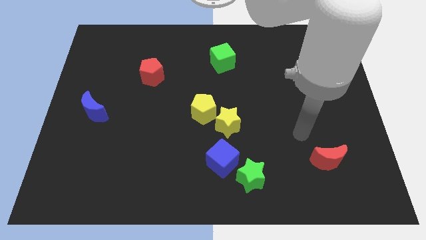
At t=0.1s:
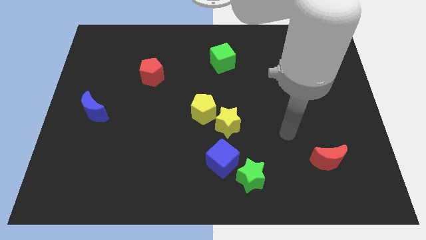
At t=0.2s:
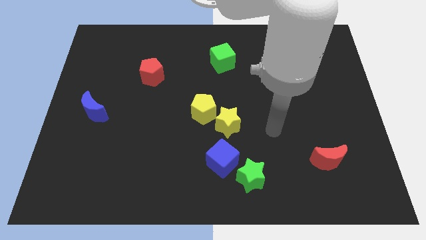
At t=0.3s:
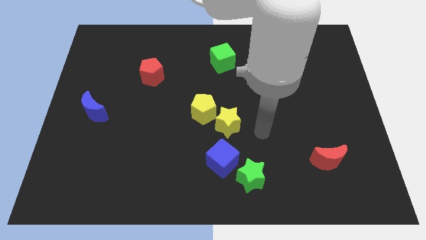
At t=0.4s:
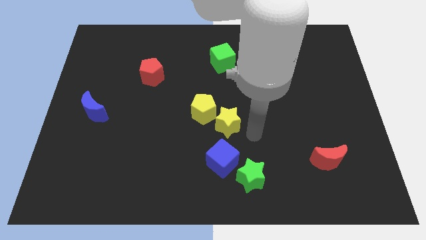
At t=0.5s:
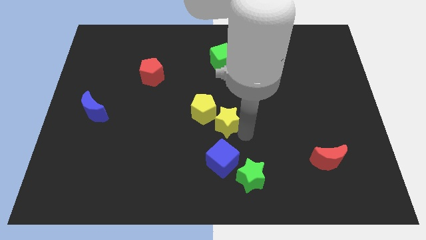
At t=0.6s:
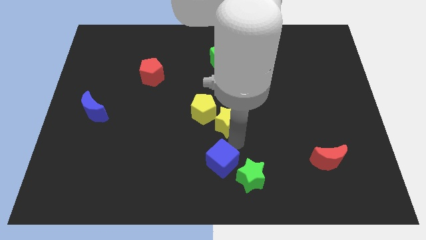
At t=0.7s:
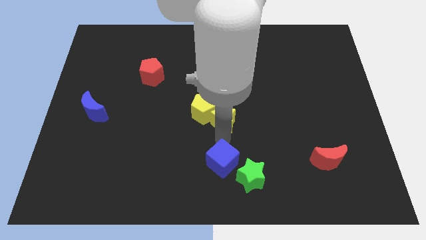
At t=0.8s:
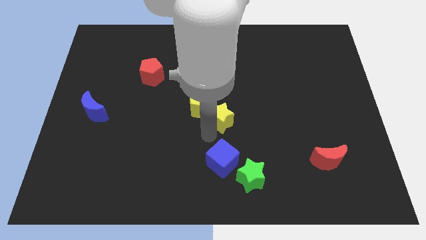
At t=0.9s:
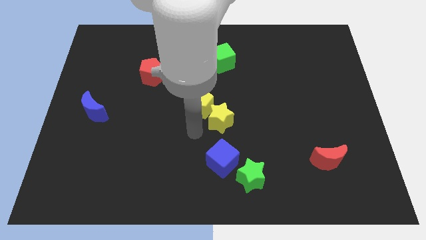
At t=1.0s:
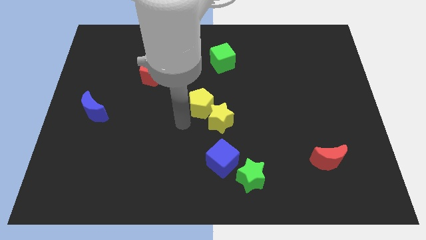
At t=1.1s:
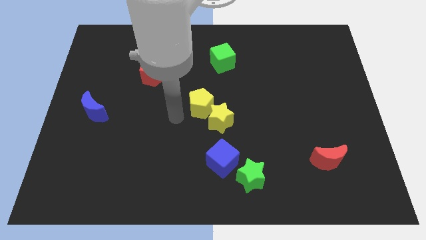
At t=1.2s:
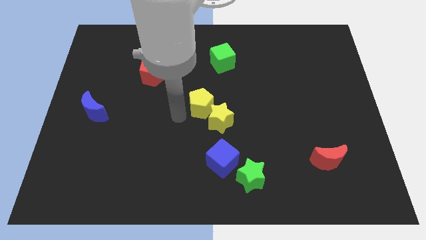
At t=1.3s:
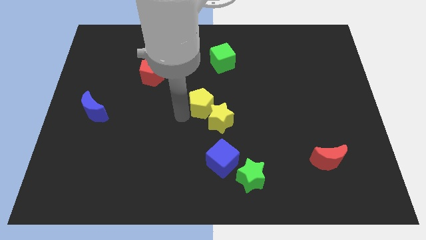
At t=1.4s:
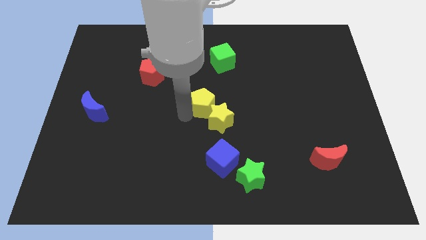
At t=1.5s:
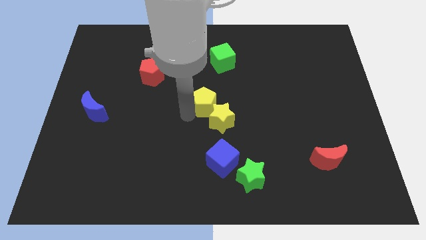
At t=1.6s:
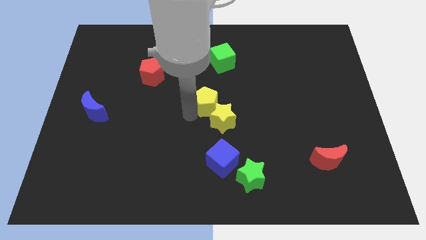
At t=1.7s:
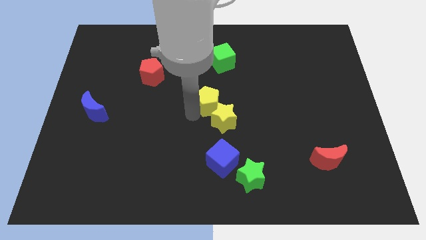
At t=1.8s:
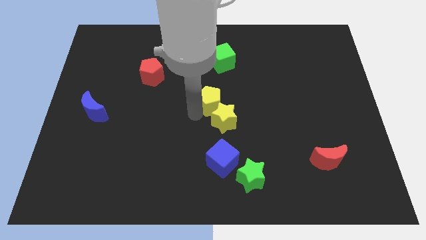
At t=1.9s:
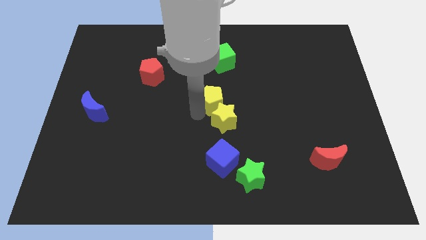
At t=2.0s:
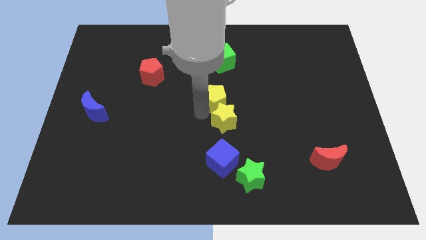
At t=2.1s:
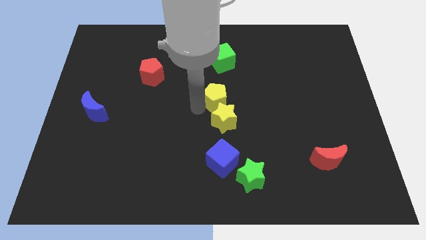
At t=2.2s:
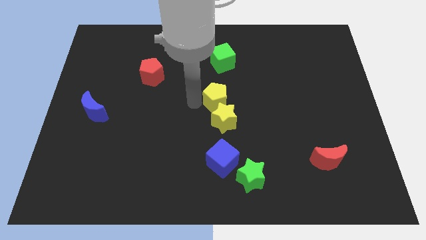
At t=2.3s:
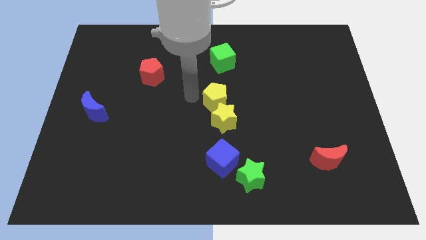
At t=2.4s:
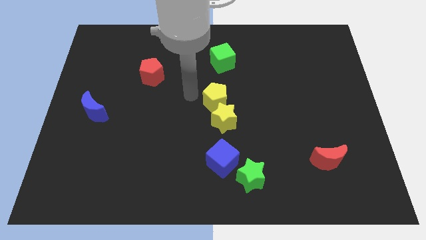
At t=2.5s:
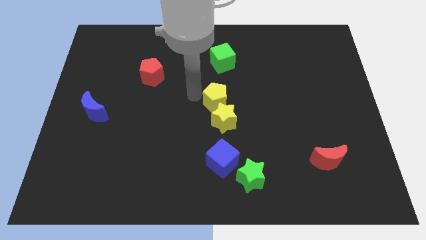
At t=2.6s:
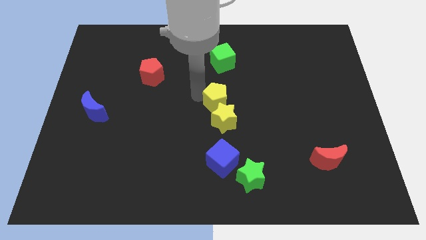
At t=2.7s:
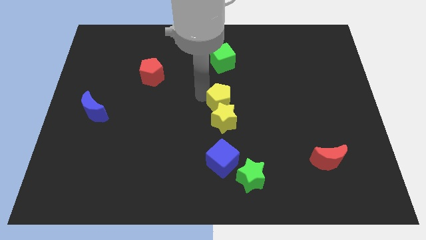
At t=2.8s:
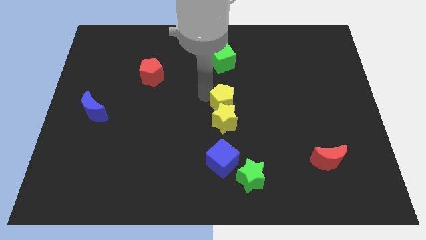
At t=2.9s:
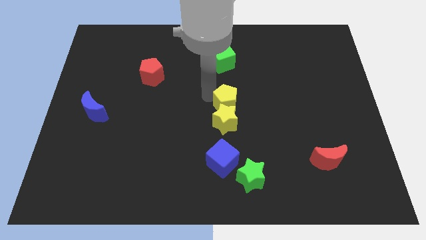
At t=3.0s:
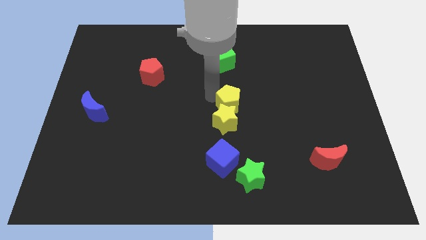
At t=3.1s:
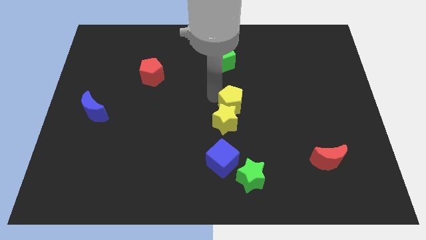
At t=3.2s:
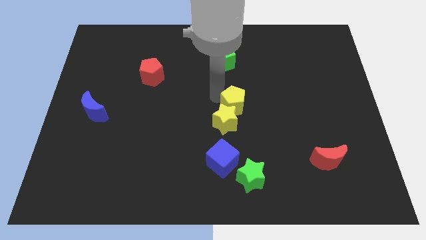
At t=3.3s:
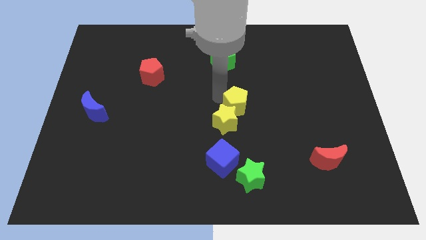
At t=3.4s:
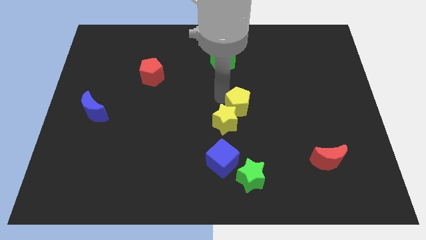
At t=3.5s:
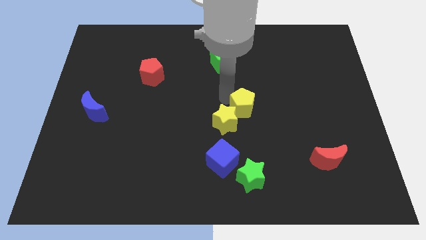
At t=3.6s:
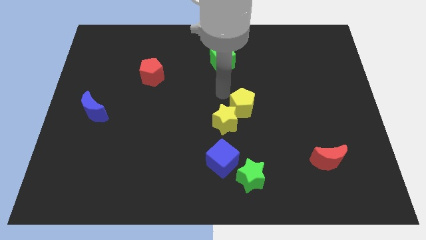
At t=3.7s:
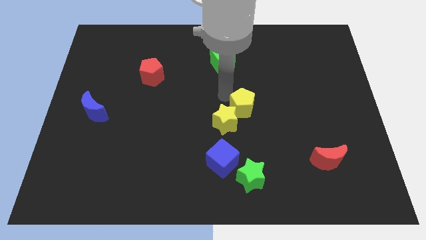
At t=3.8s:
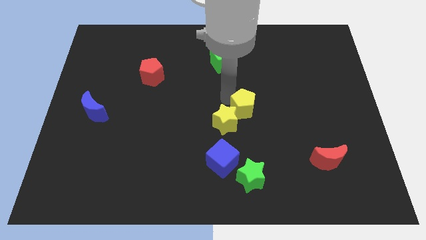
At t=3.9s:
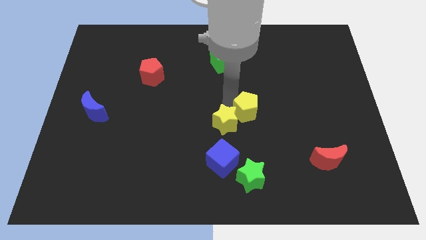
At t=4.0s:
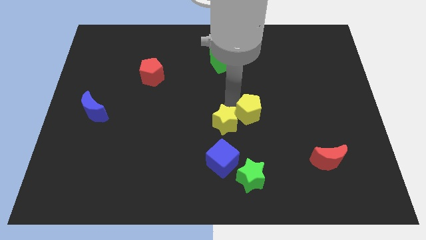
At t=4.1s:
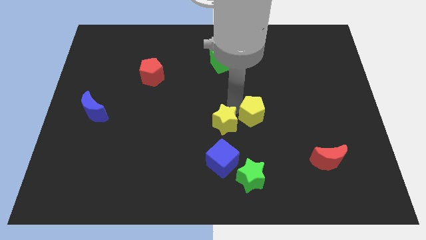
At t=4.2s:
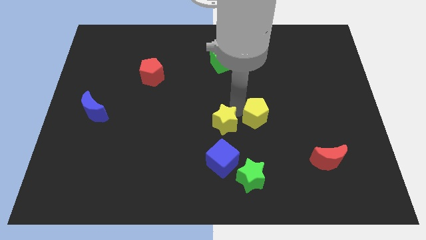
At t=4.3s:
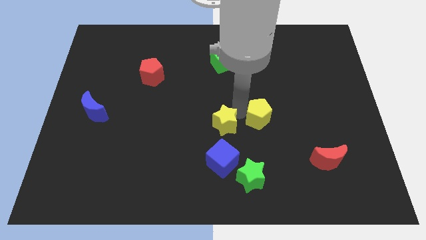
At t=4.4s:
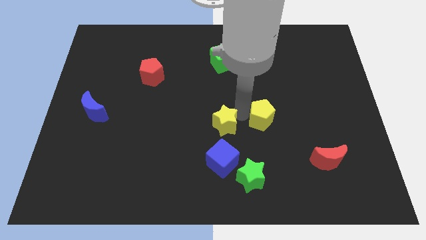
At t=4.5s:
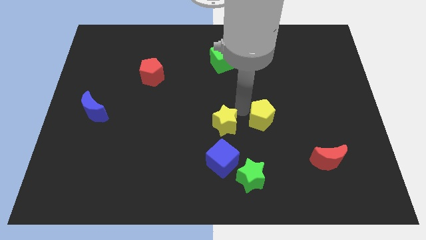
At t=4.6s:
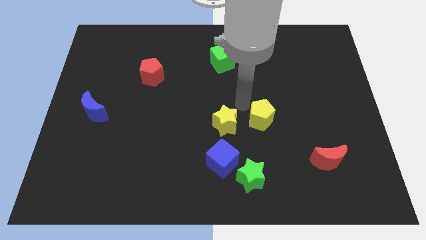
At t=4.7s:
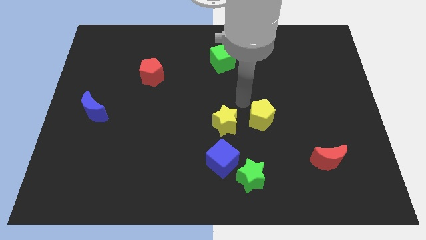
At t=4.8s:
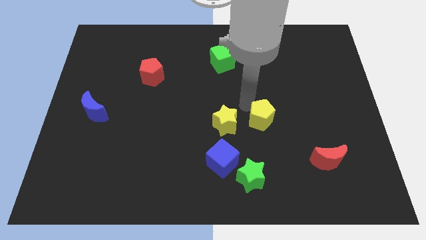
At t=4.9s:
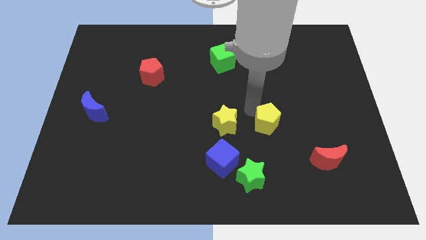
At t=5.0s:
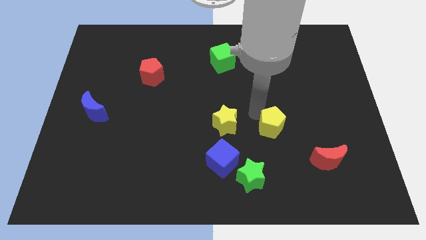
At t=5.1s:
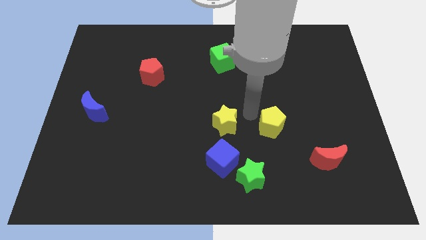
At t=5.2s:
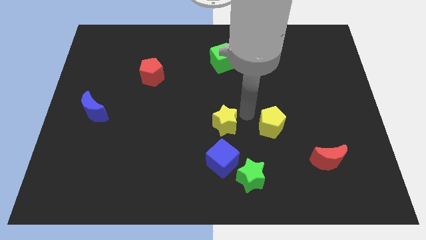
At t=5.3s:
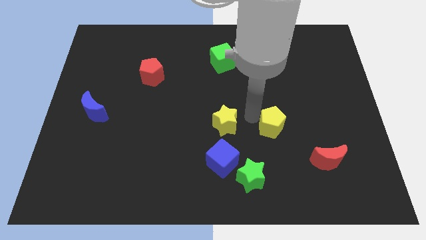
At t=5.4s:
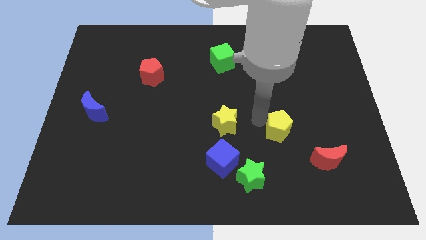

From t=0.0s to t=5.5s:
move the yellow pentagon to the top left of the red moon
